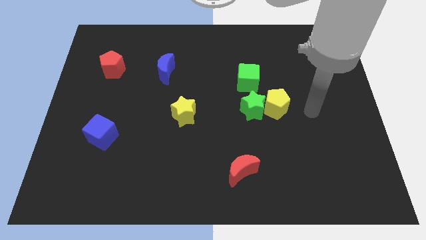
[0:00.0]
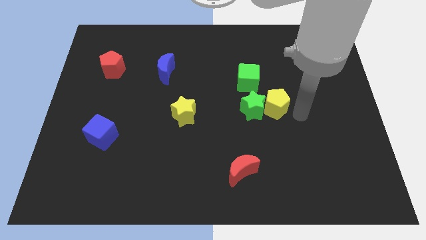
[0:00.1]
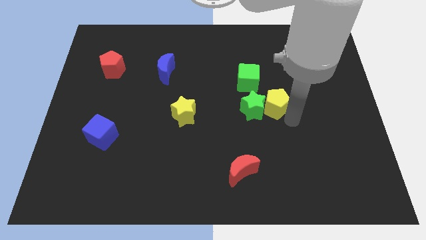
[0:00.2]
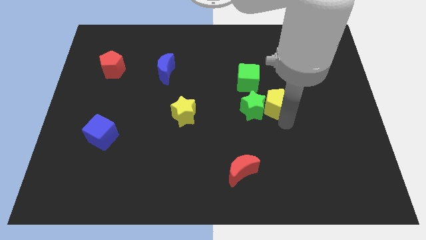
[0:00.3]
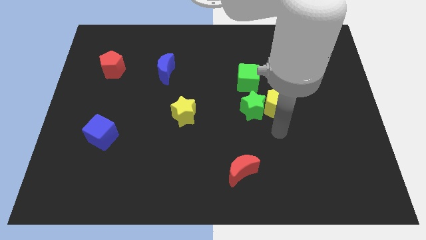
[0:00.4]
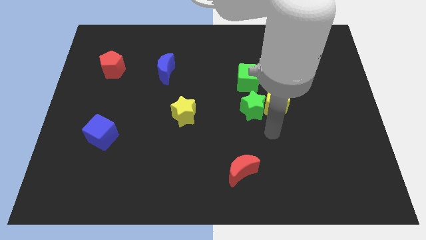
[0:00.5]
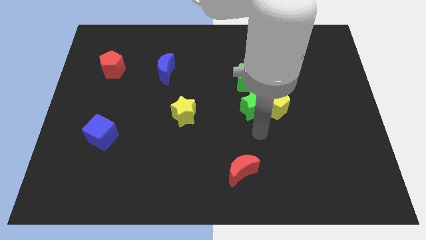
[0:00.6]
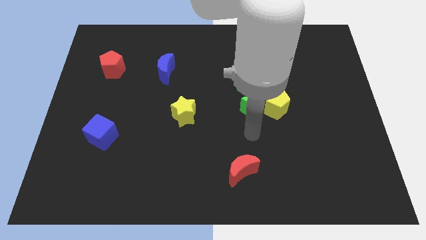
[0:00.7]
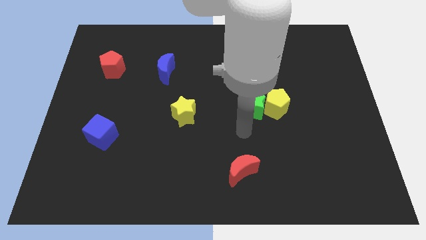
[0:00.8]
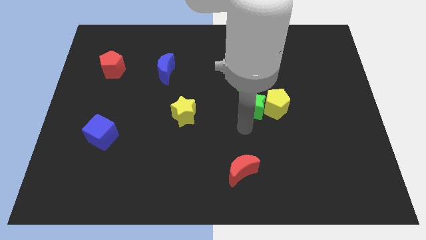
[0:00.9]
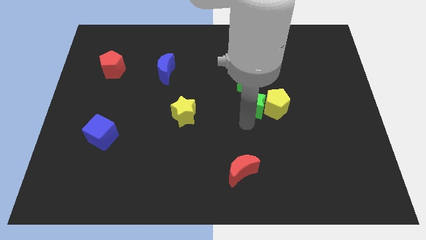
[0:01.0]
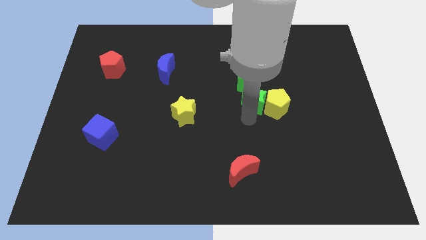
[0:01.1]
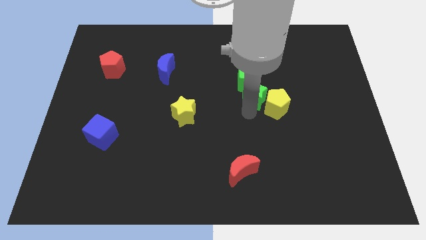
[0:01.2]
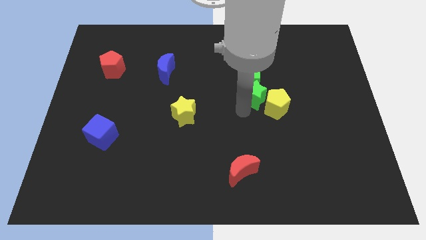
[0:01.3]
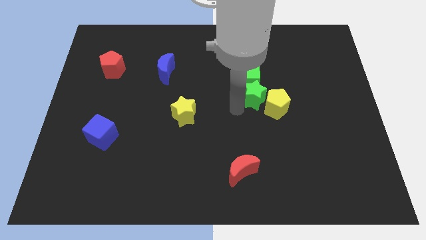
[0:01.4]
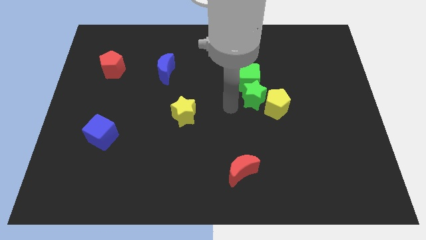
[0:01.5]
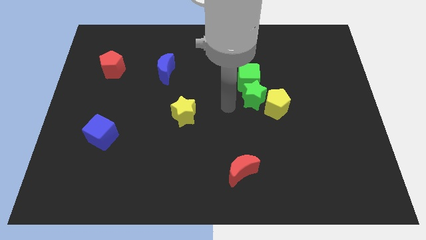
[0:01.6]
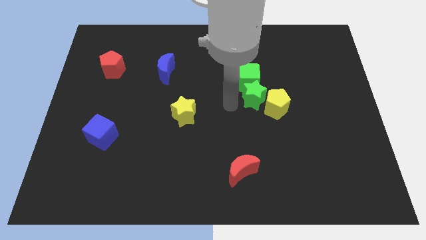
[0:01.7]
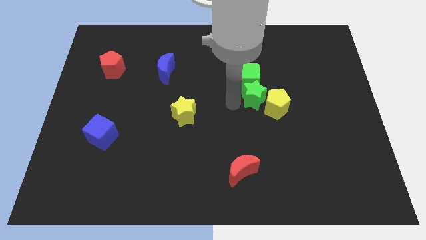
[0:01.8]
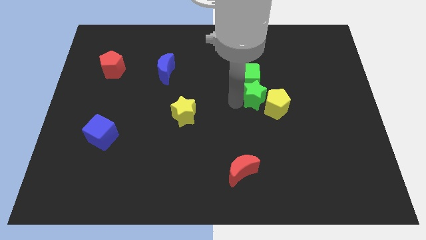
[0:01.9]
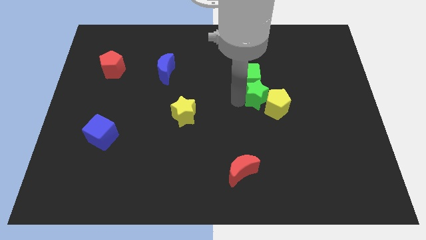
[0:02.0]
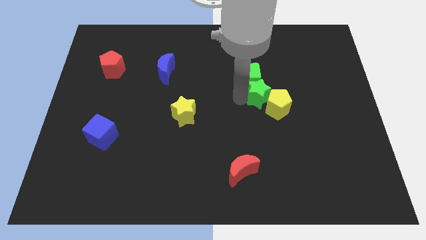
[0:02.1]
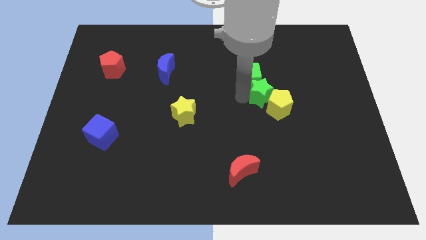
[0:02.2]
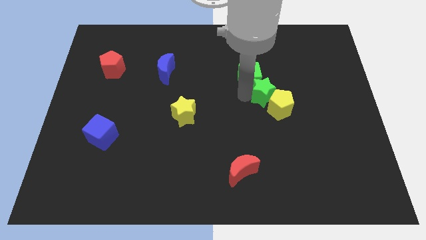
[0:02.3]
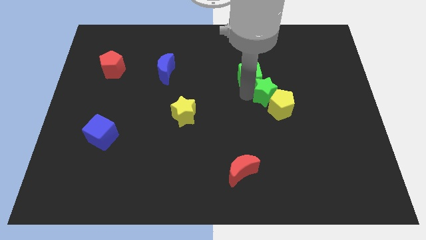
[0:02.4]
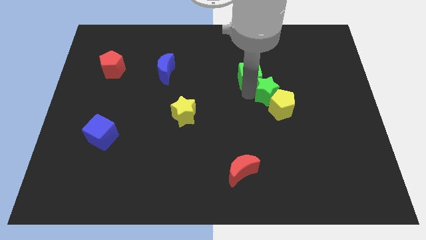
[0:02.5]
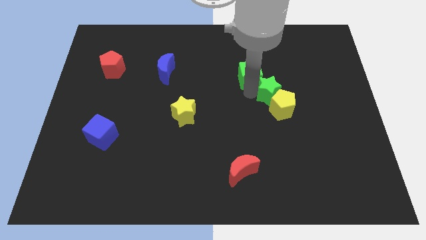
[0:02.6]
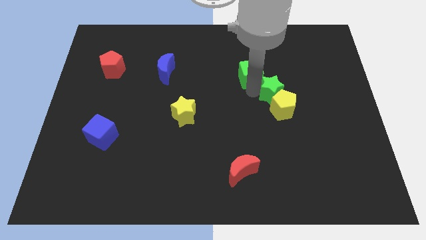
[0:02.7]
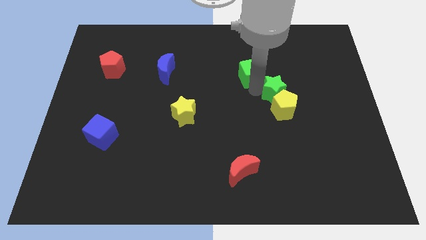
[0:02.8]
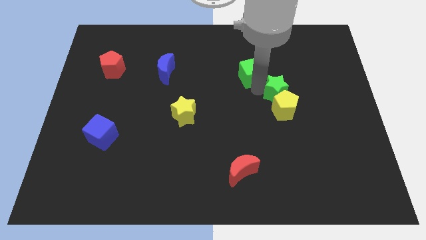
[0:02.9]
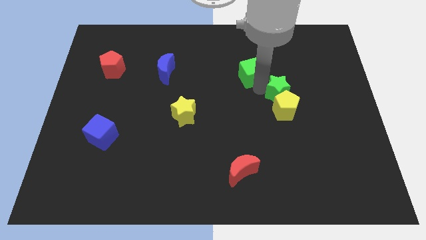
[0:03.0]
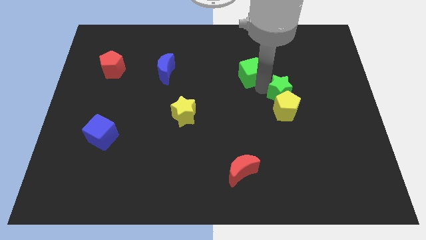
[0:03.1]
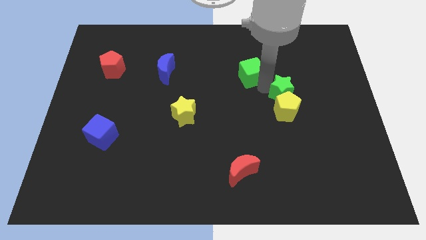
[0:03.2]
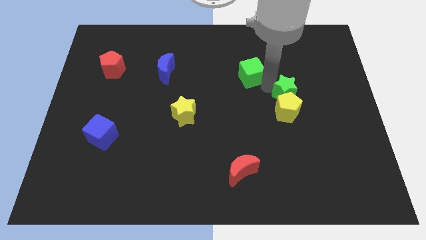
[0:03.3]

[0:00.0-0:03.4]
move the green star somewhat right

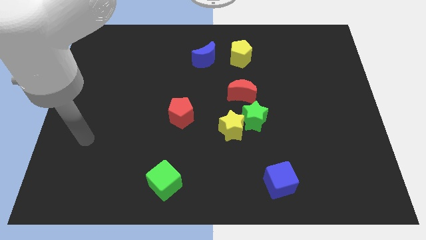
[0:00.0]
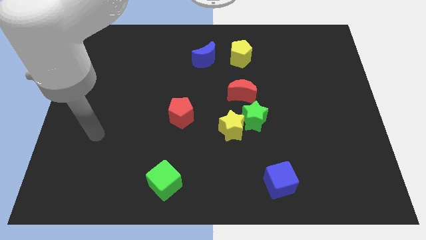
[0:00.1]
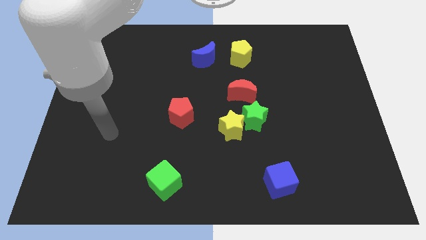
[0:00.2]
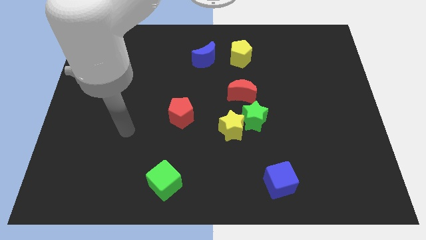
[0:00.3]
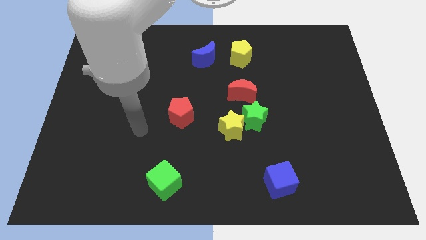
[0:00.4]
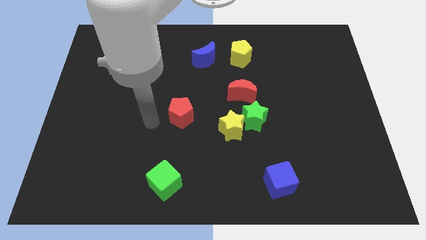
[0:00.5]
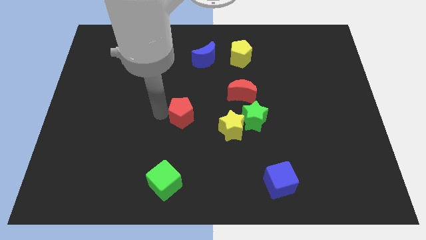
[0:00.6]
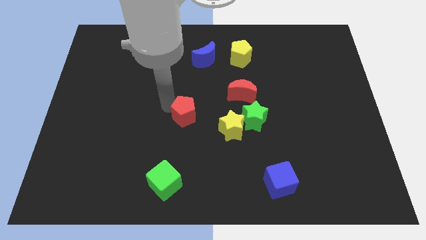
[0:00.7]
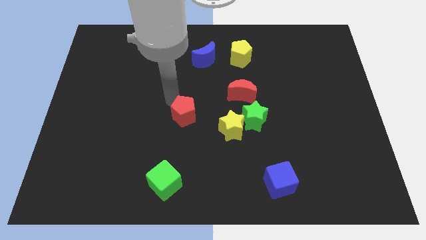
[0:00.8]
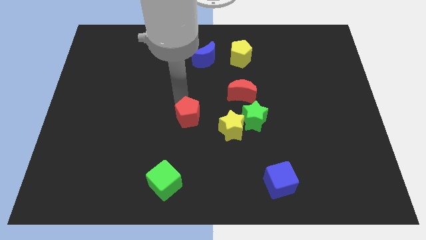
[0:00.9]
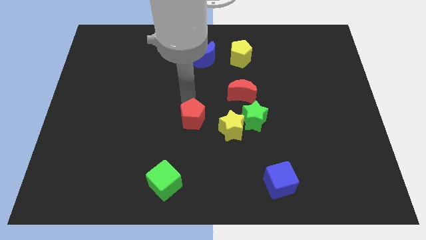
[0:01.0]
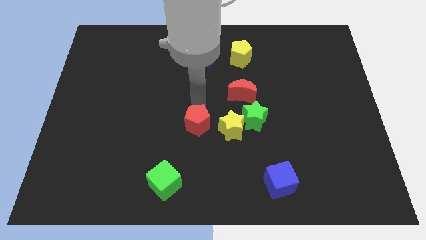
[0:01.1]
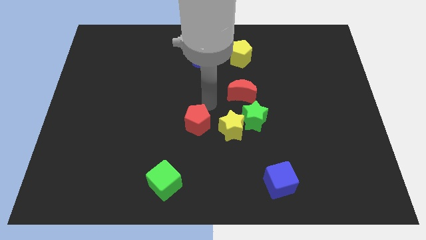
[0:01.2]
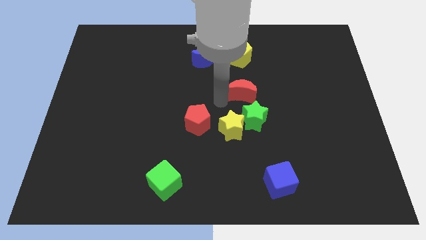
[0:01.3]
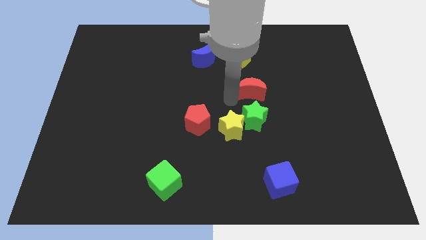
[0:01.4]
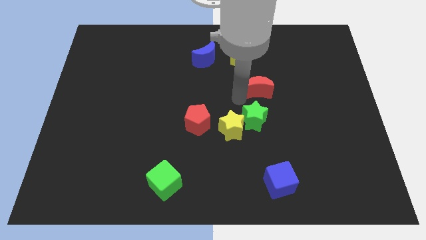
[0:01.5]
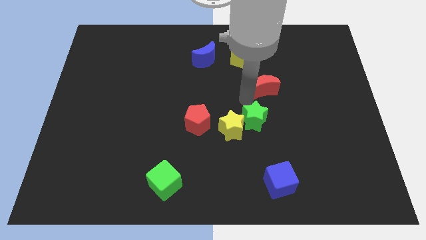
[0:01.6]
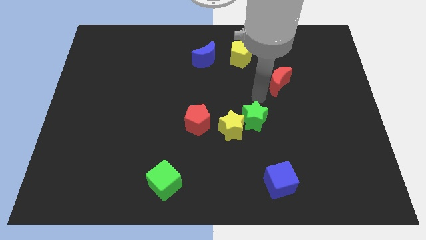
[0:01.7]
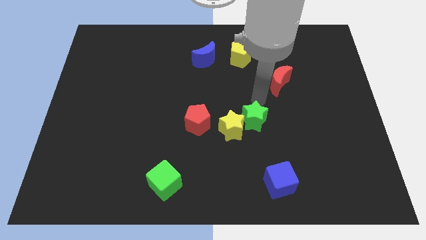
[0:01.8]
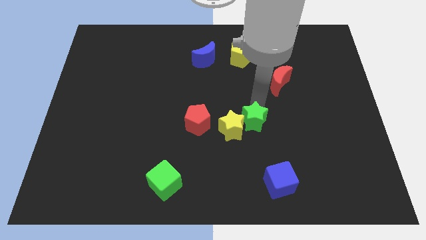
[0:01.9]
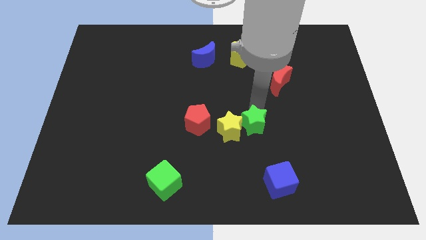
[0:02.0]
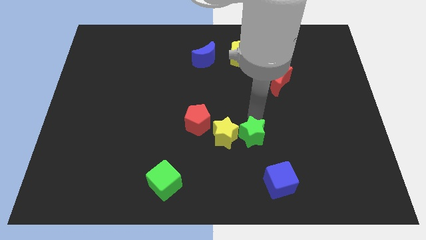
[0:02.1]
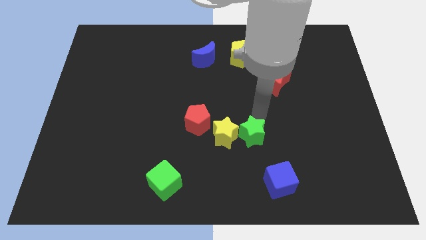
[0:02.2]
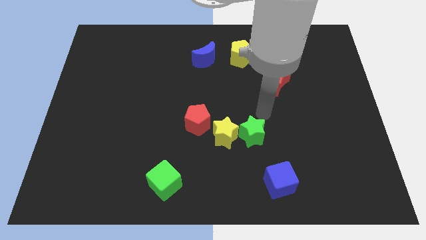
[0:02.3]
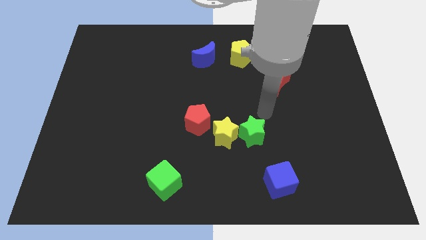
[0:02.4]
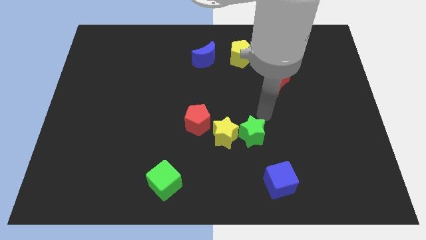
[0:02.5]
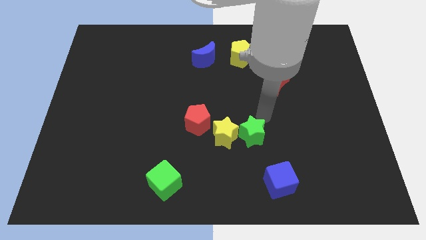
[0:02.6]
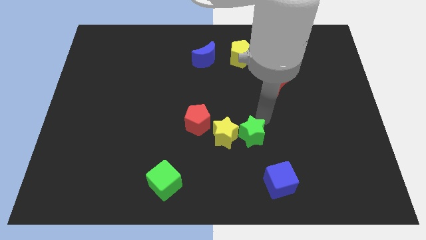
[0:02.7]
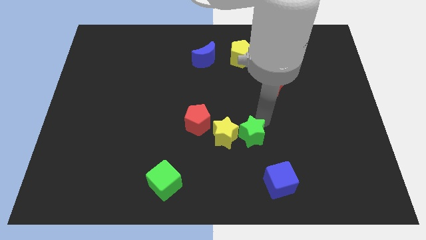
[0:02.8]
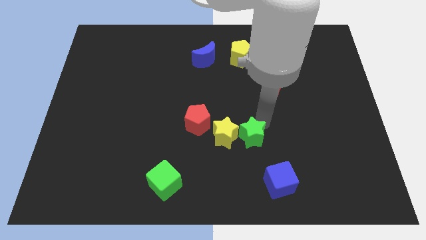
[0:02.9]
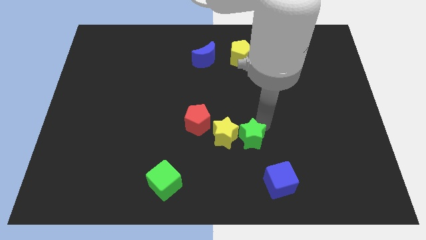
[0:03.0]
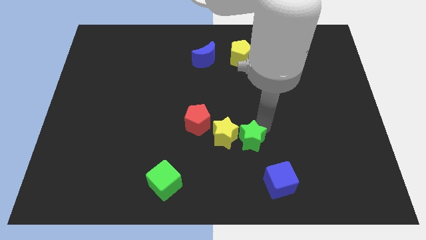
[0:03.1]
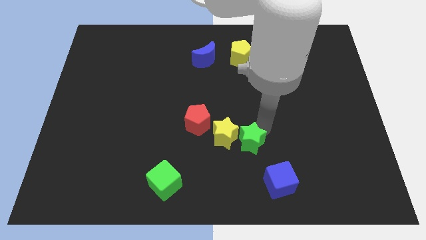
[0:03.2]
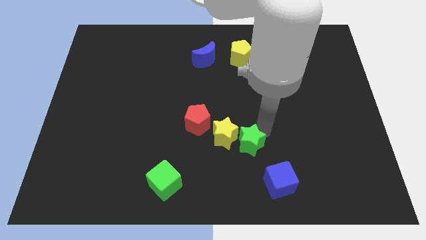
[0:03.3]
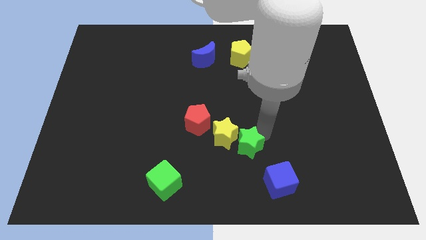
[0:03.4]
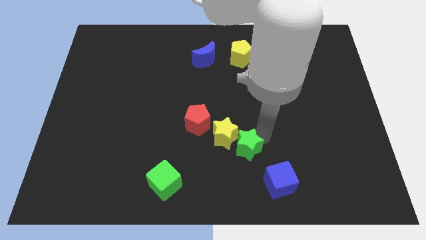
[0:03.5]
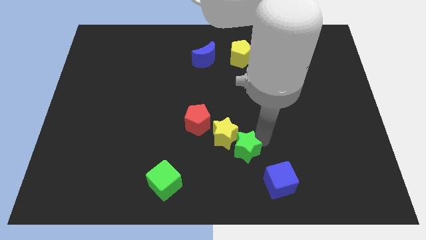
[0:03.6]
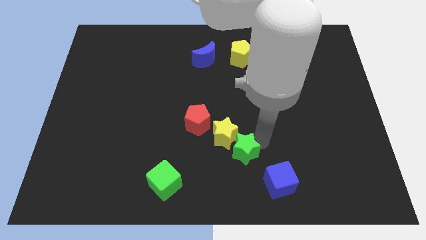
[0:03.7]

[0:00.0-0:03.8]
push the green star down and to the left diagonally a bit

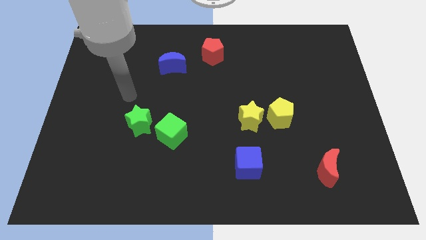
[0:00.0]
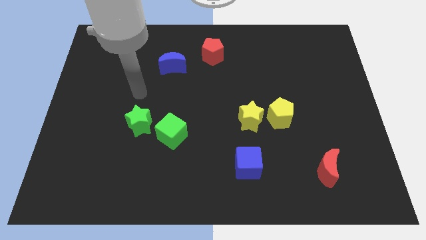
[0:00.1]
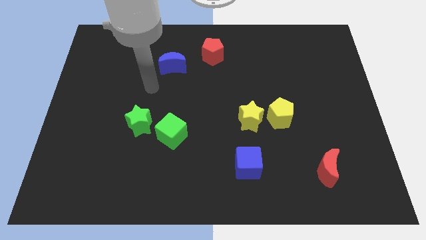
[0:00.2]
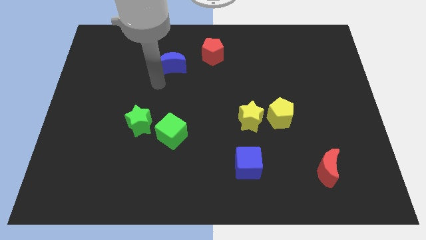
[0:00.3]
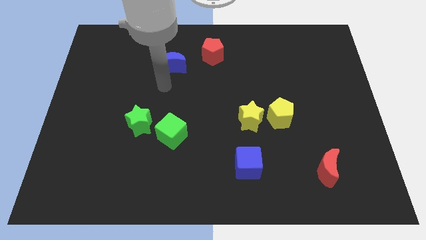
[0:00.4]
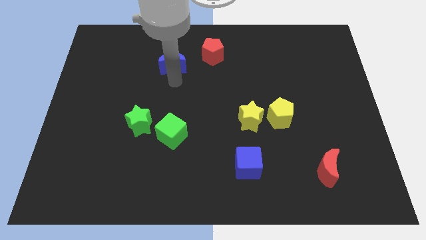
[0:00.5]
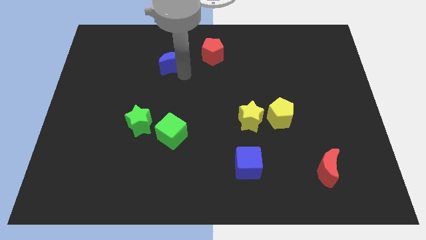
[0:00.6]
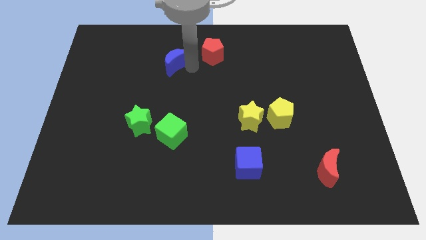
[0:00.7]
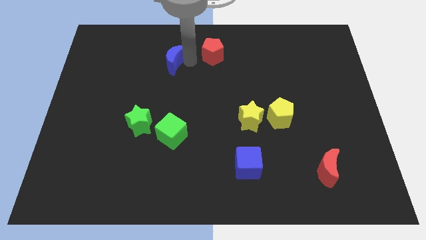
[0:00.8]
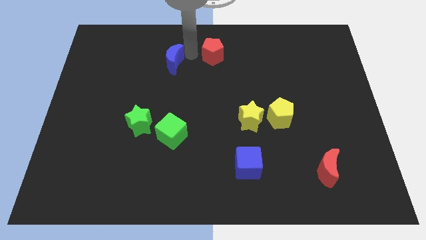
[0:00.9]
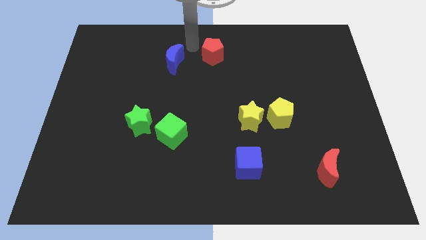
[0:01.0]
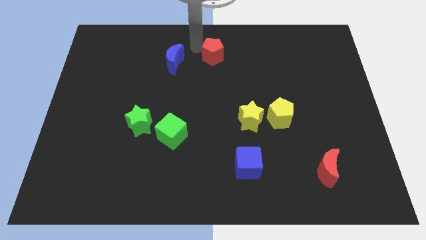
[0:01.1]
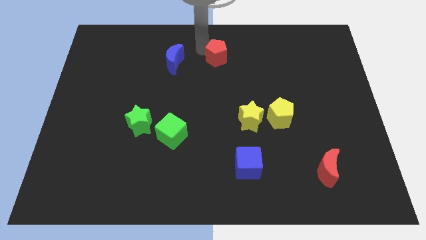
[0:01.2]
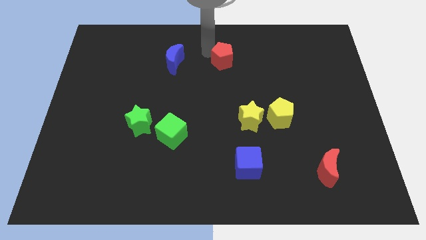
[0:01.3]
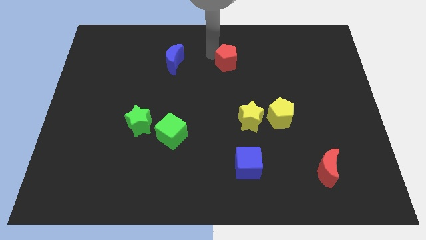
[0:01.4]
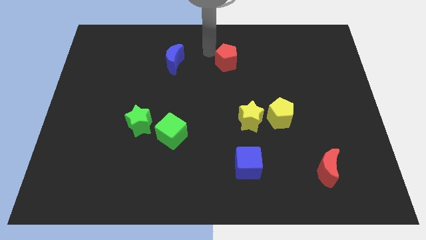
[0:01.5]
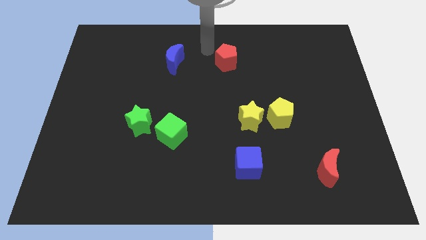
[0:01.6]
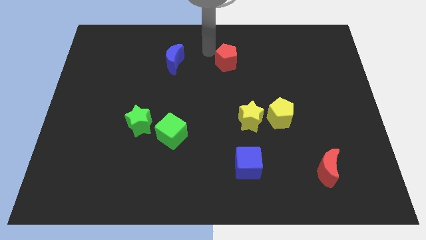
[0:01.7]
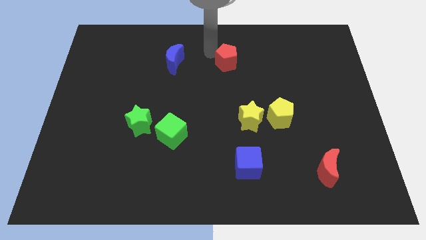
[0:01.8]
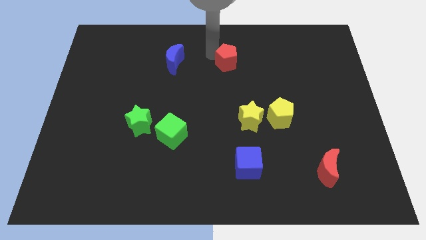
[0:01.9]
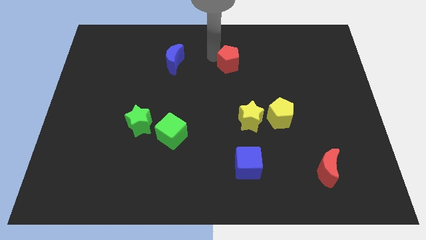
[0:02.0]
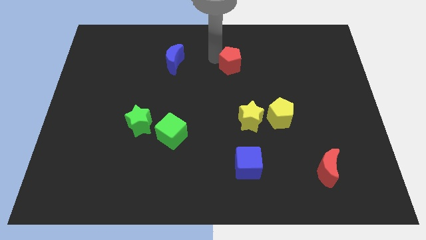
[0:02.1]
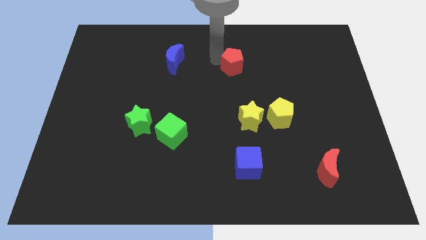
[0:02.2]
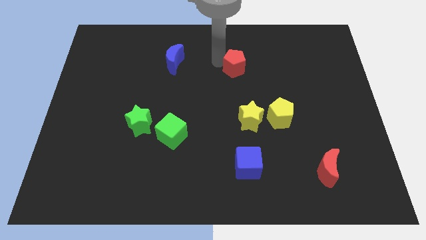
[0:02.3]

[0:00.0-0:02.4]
push the red pentagon diagonally down and to the right somewhat
